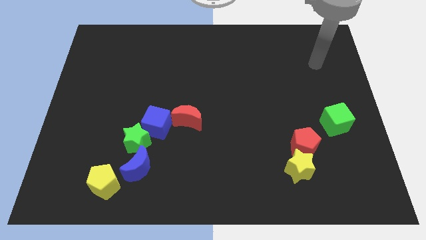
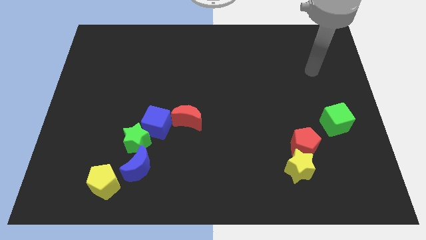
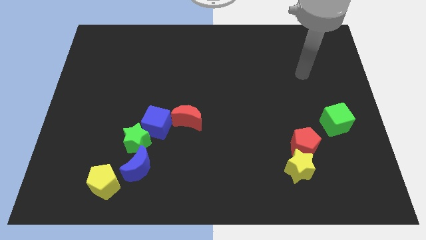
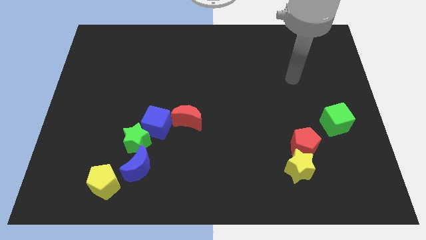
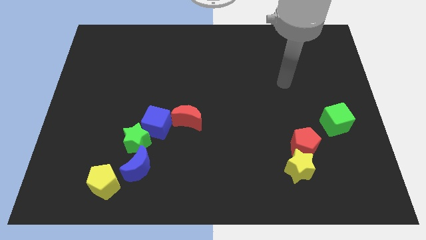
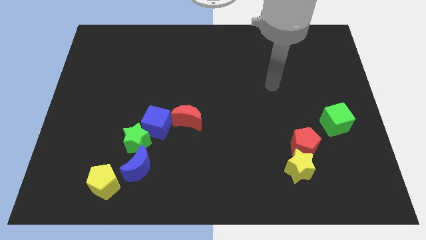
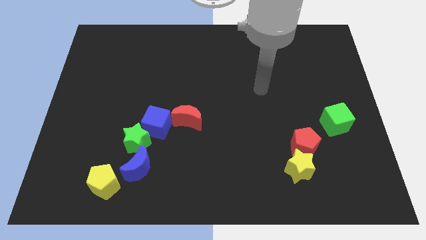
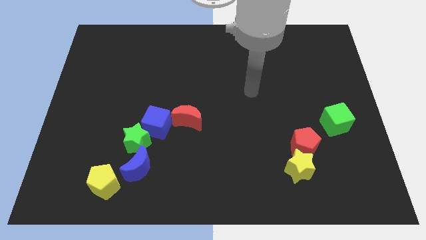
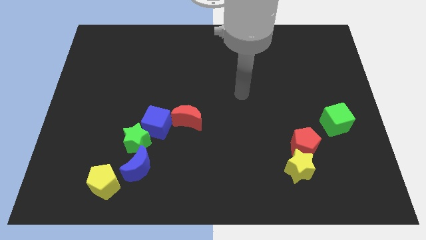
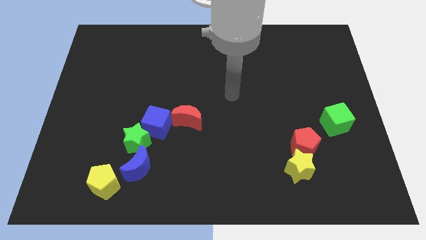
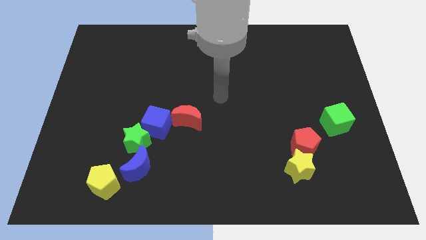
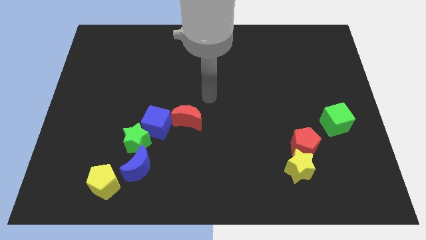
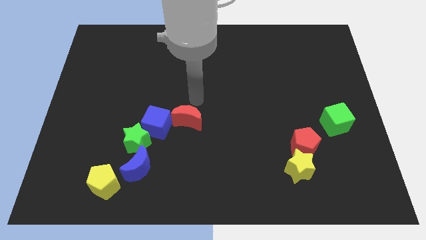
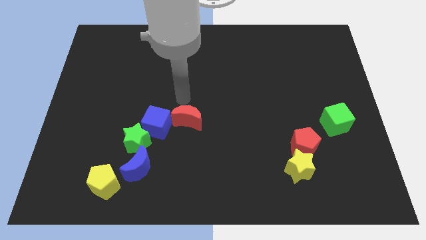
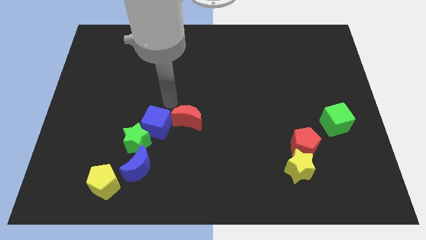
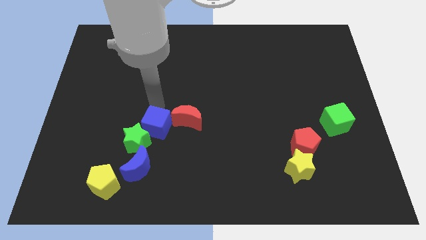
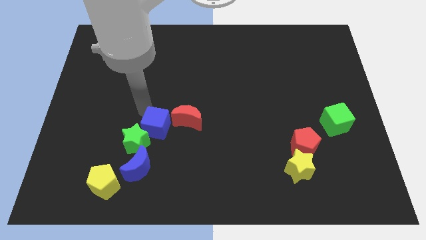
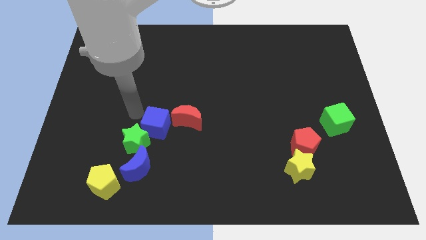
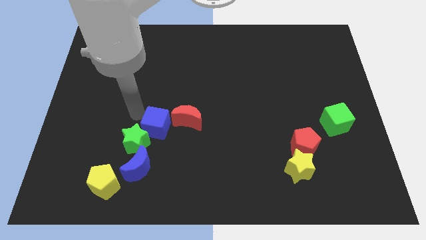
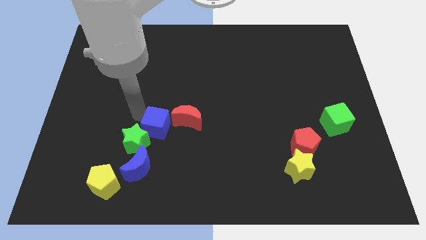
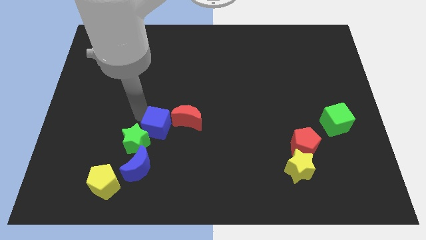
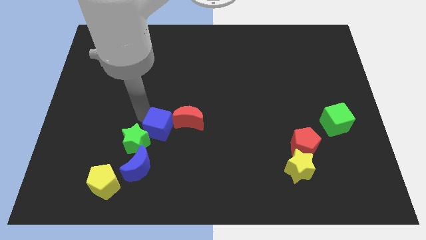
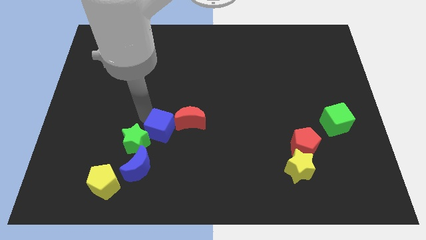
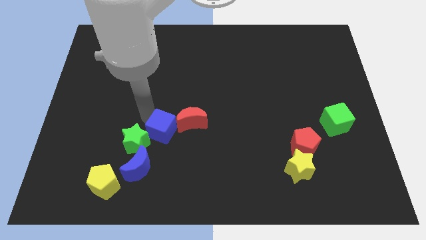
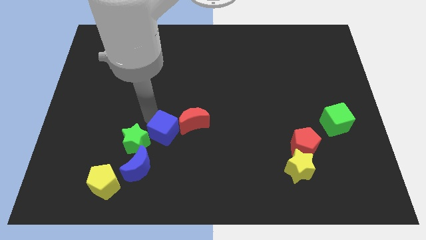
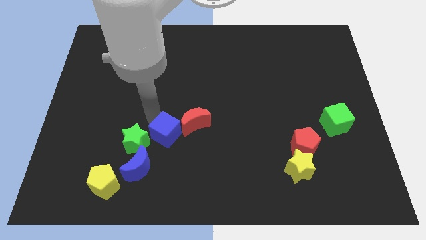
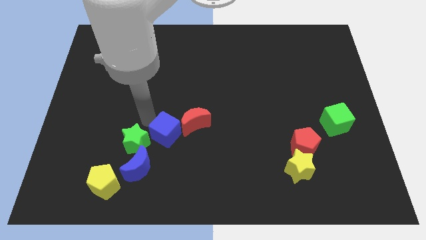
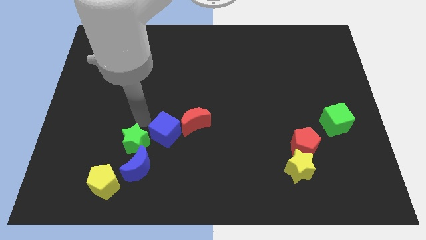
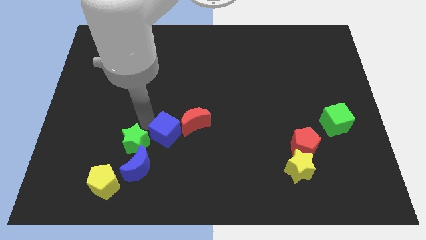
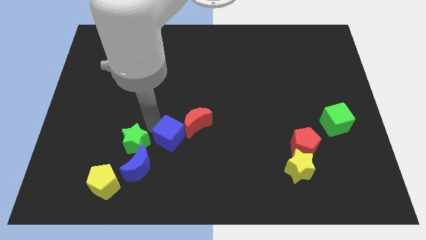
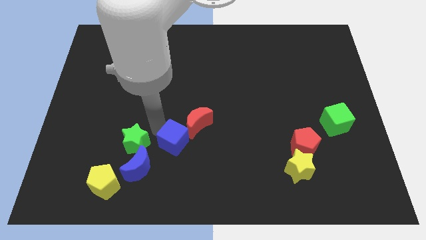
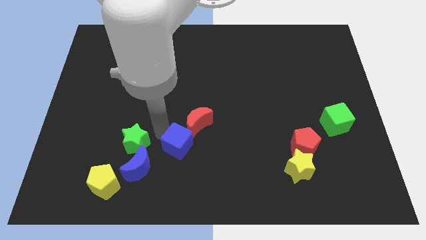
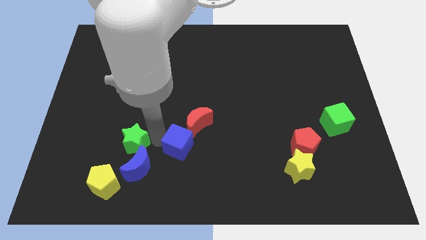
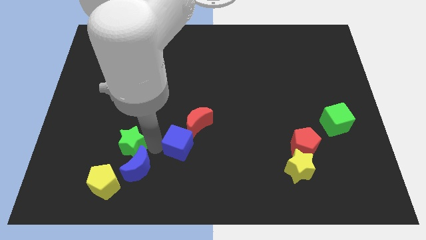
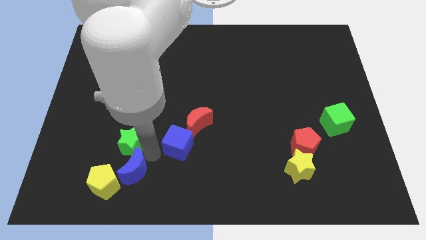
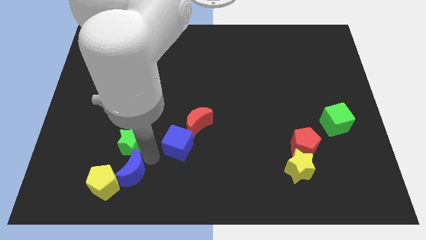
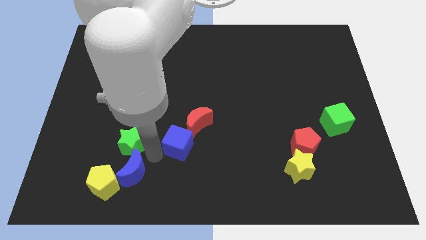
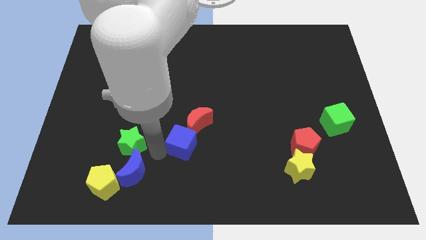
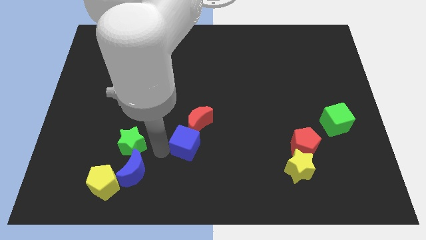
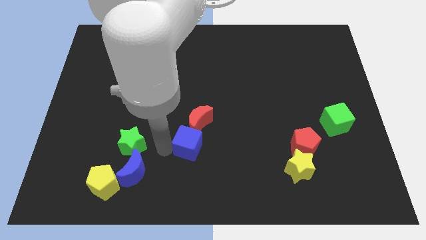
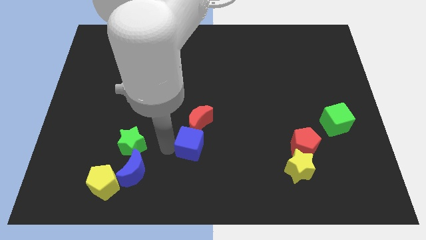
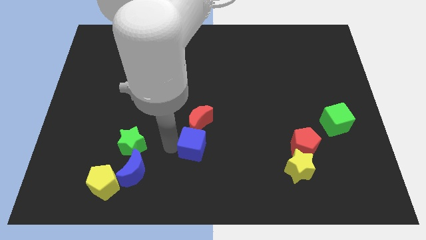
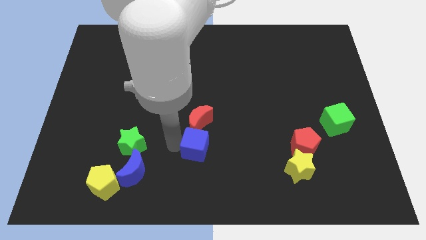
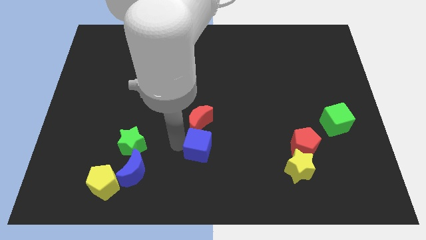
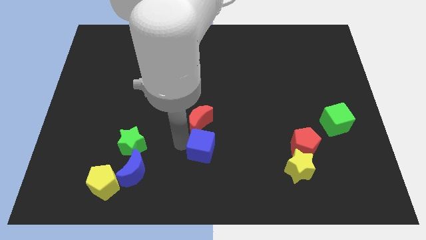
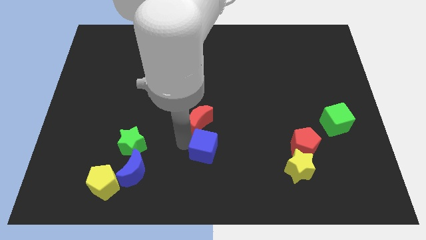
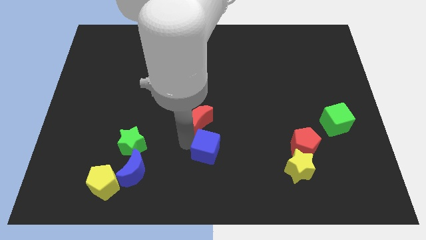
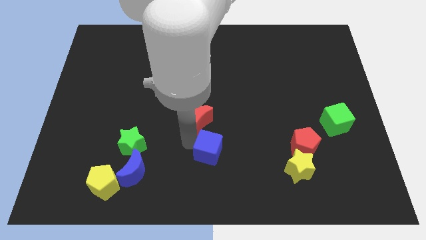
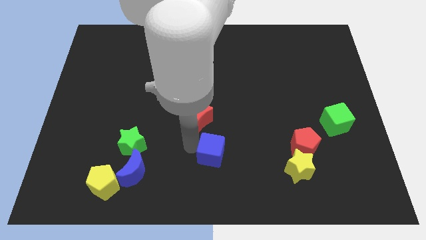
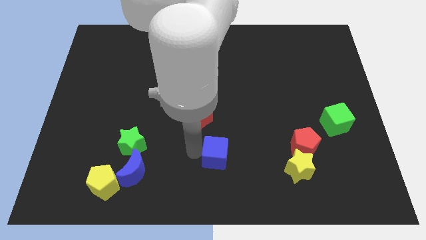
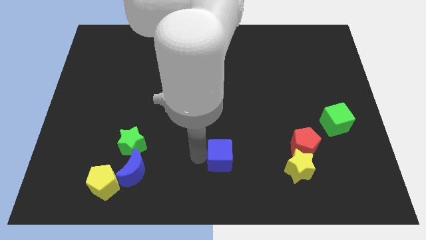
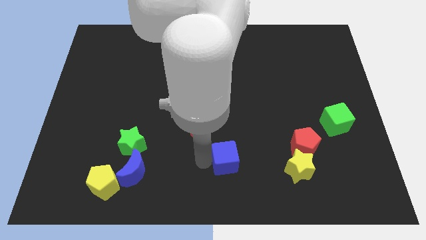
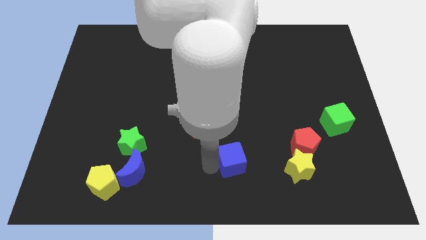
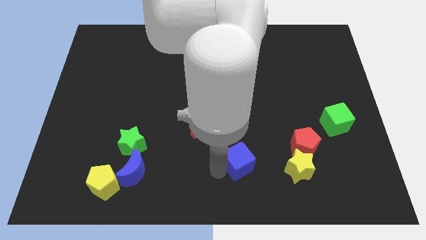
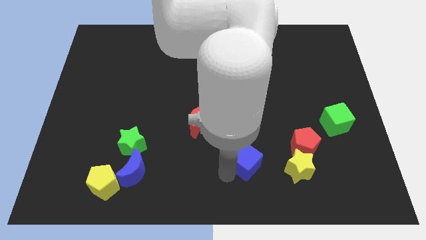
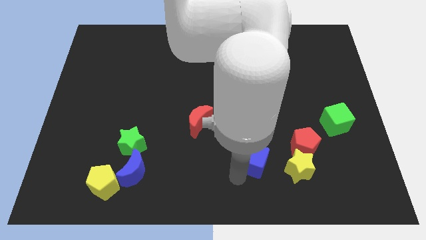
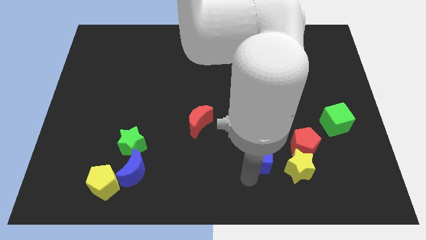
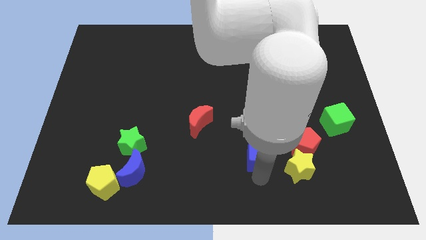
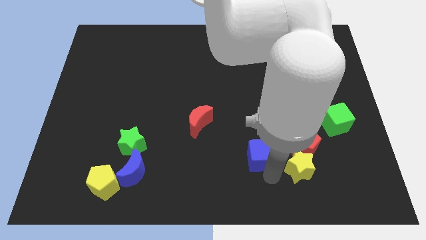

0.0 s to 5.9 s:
slide the blue cube right

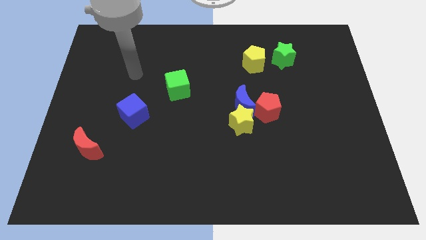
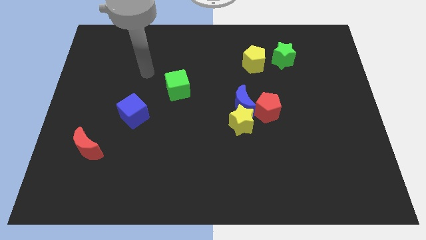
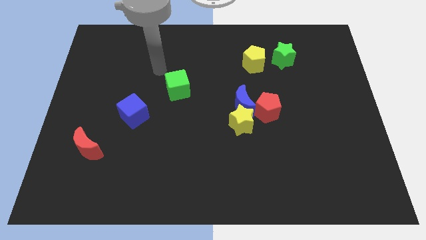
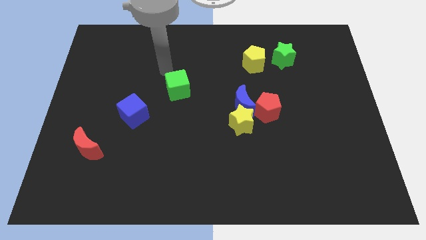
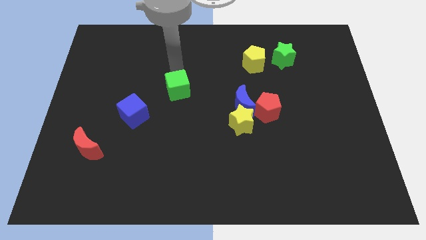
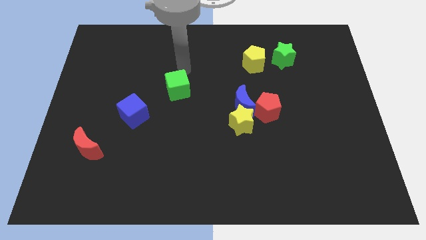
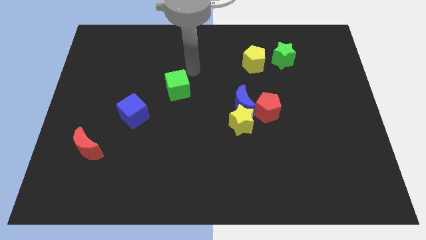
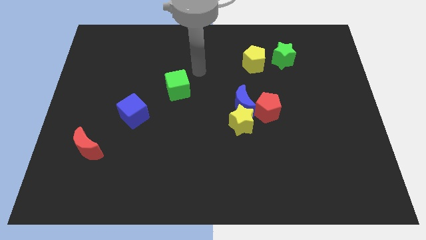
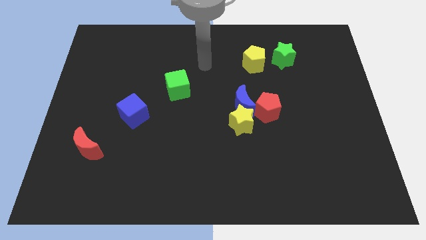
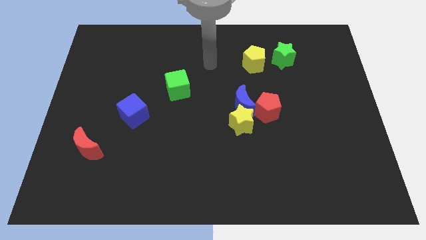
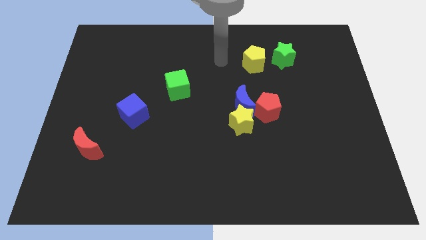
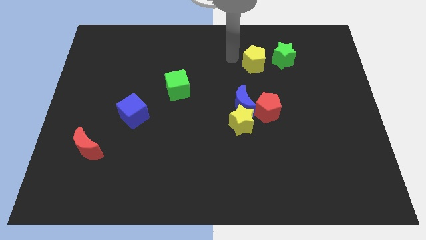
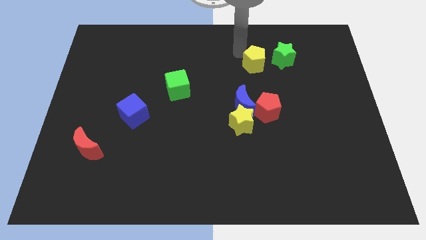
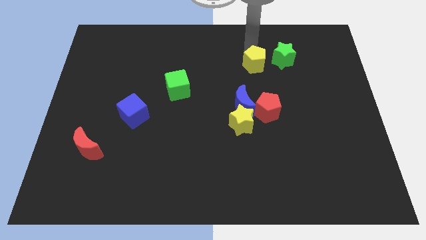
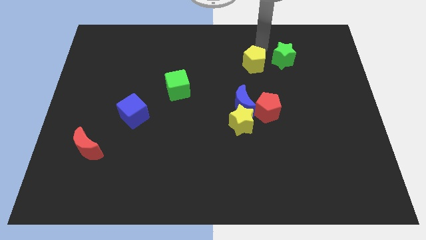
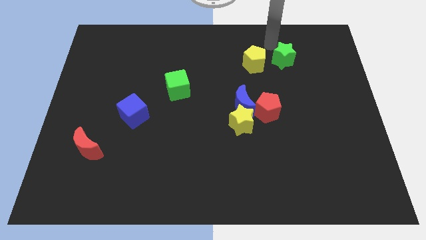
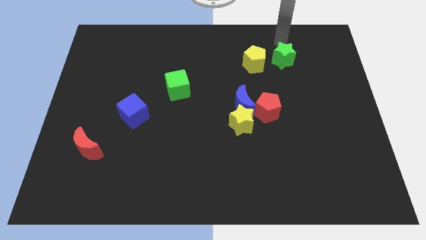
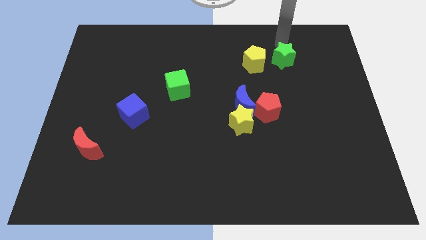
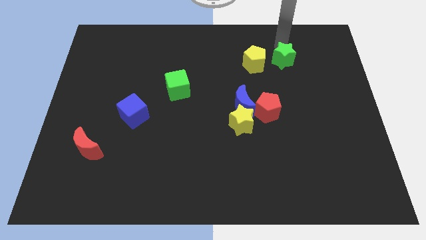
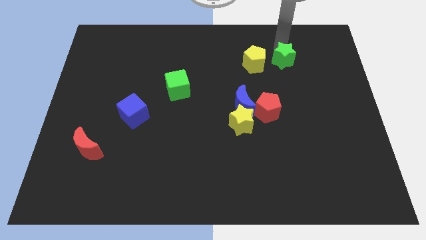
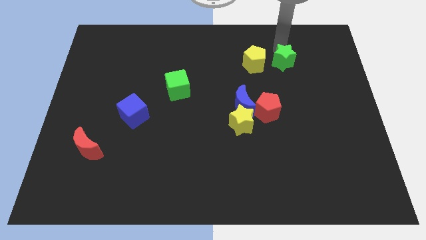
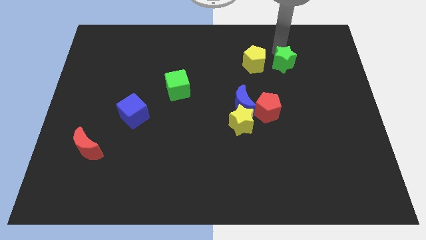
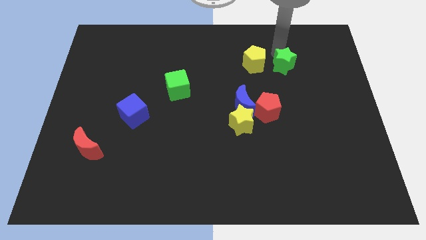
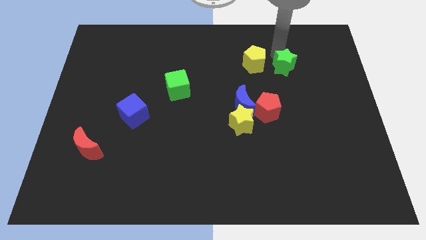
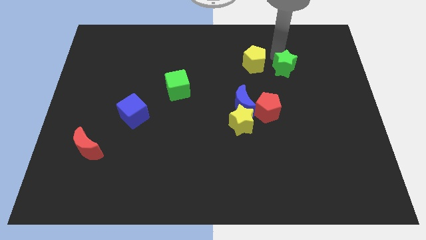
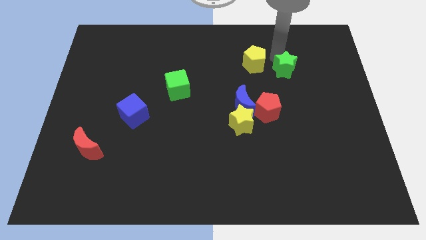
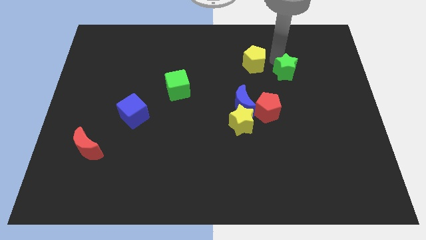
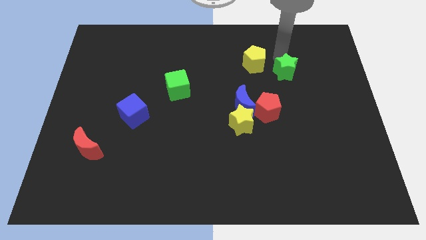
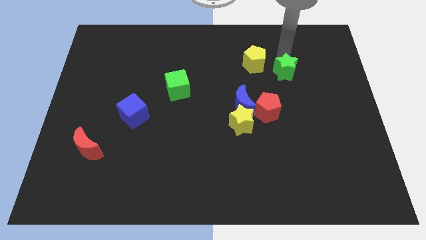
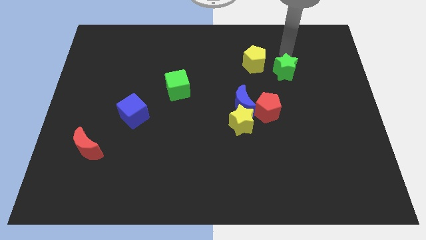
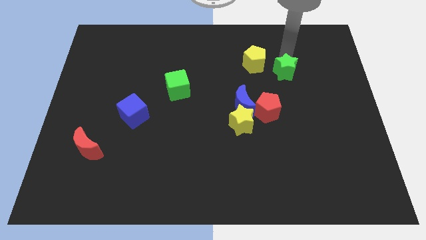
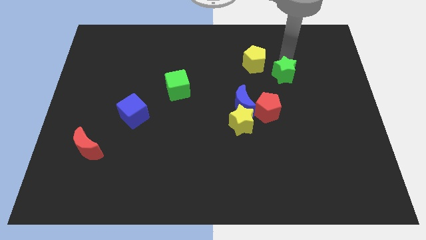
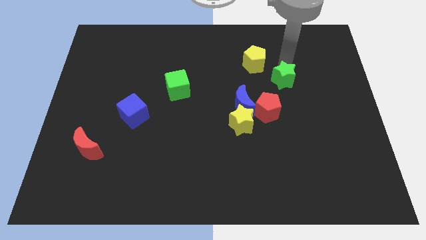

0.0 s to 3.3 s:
push the green star down somewhat
